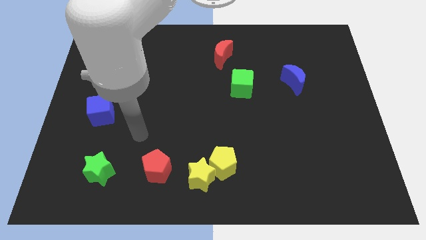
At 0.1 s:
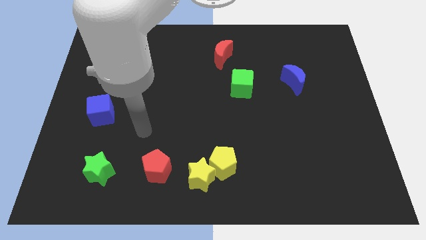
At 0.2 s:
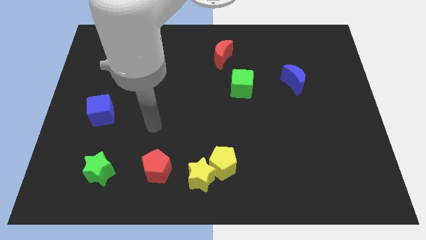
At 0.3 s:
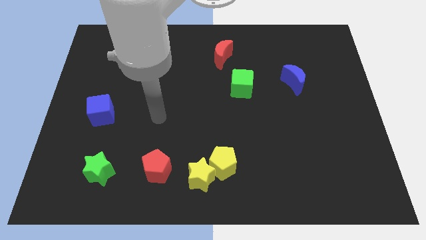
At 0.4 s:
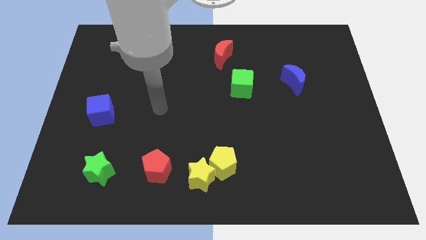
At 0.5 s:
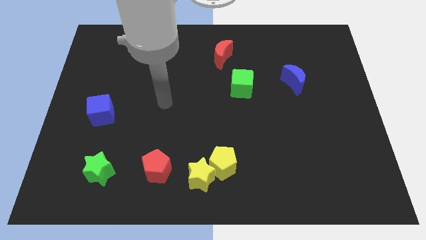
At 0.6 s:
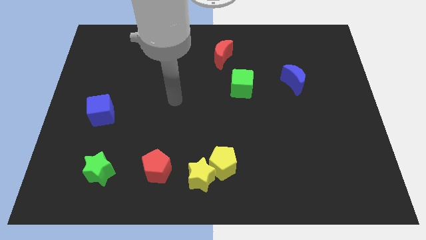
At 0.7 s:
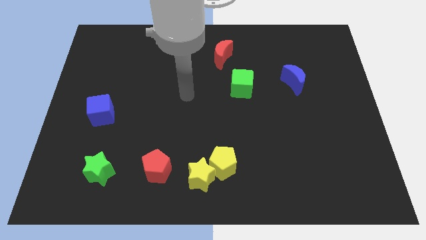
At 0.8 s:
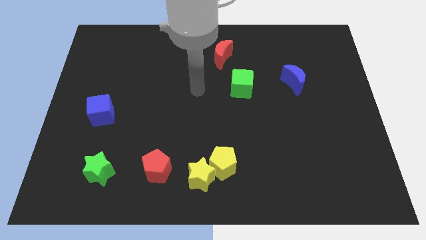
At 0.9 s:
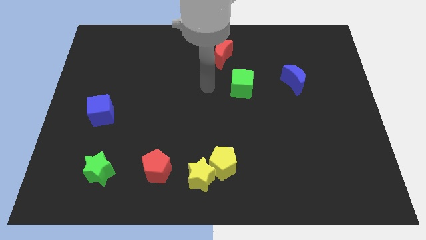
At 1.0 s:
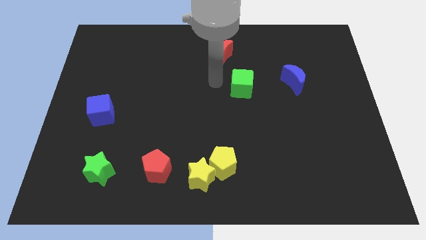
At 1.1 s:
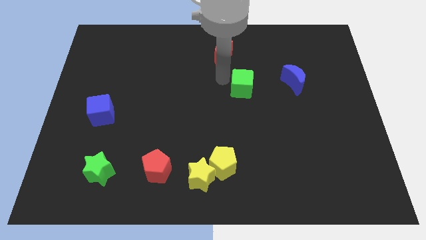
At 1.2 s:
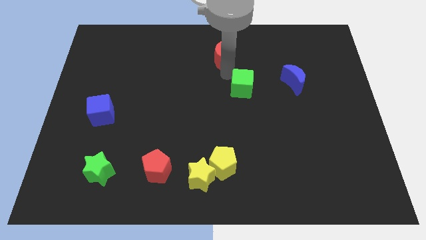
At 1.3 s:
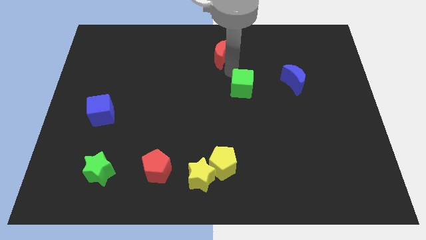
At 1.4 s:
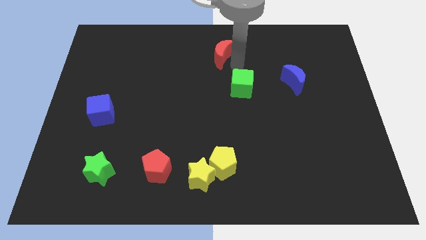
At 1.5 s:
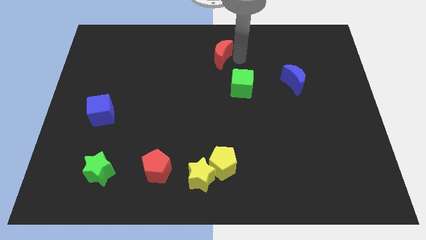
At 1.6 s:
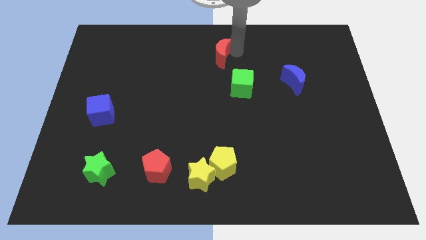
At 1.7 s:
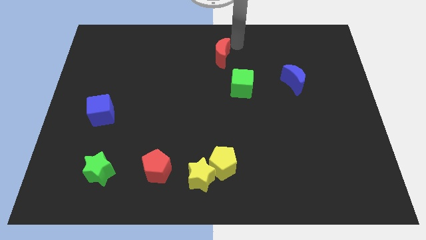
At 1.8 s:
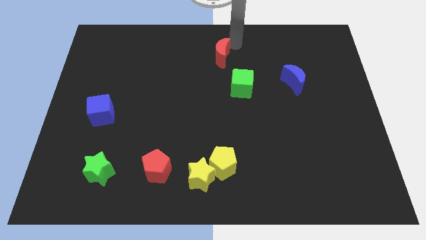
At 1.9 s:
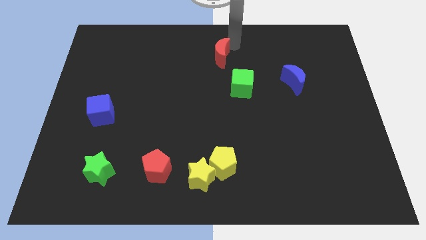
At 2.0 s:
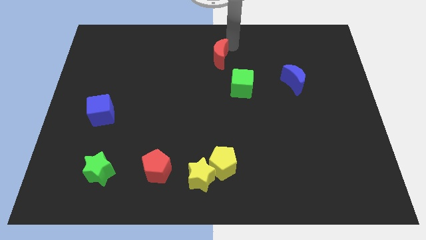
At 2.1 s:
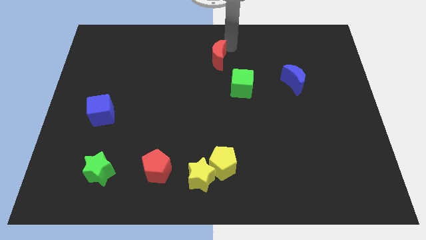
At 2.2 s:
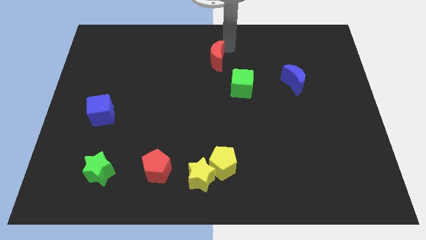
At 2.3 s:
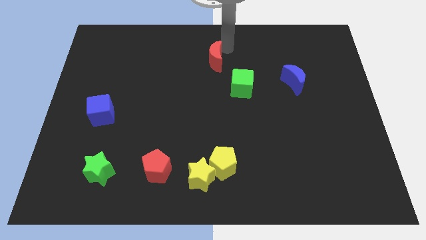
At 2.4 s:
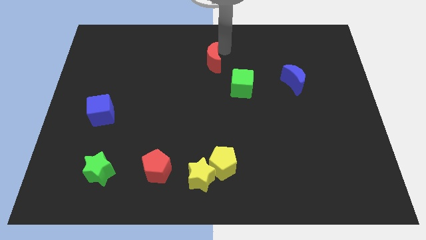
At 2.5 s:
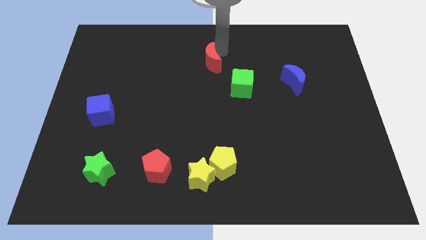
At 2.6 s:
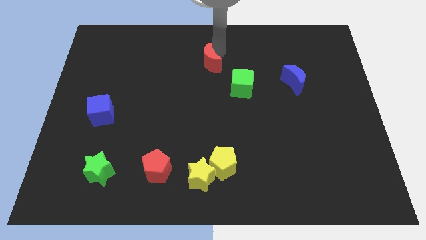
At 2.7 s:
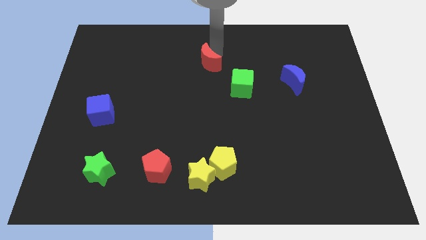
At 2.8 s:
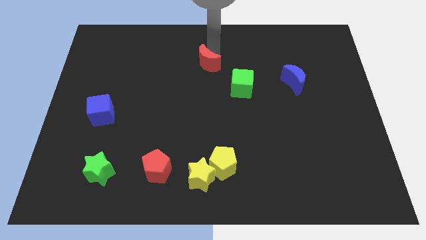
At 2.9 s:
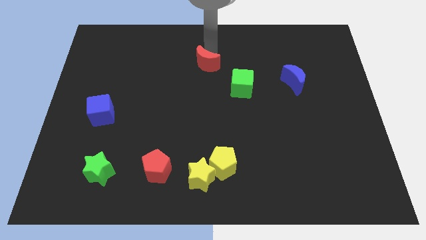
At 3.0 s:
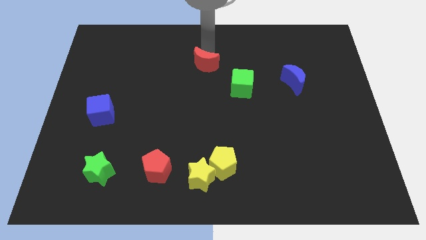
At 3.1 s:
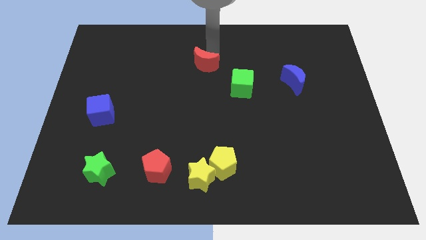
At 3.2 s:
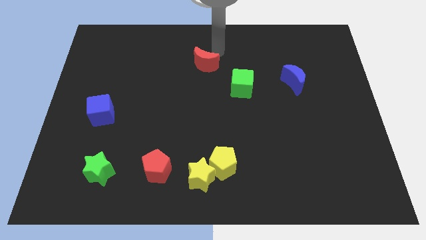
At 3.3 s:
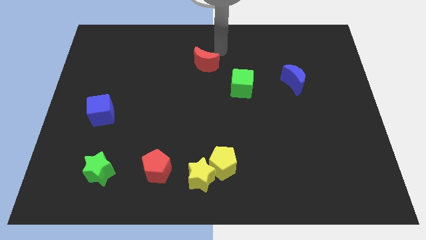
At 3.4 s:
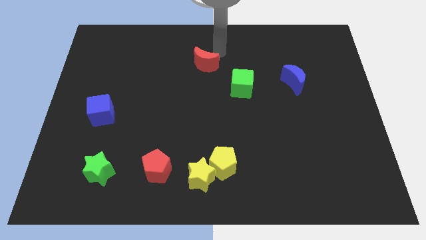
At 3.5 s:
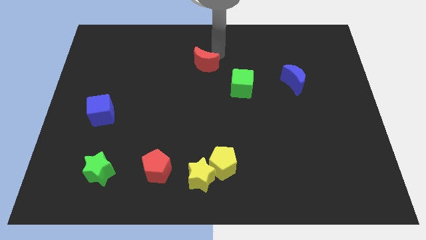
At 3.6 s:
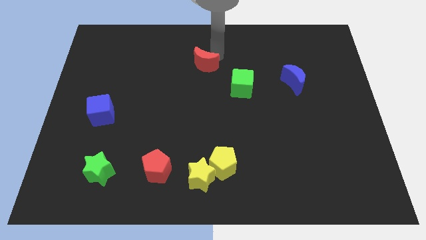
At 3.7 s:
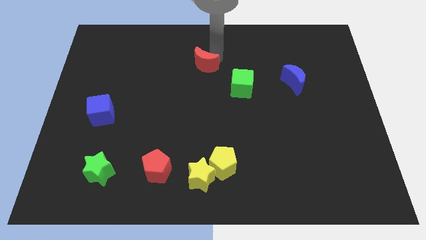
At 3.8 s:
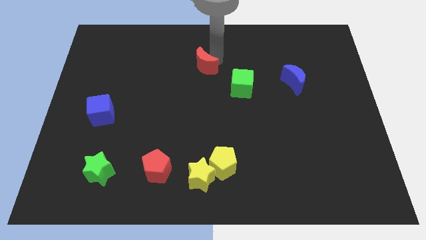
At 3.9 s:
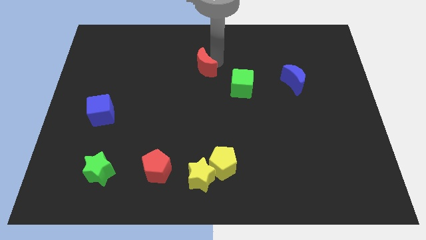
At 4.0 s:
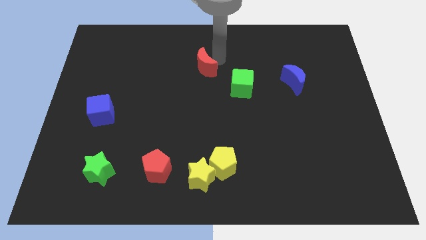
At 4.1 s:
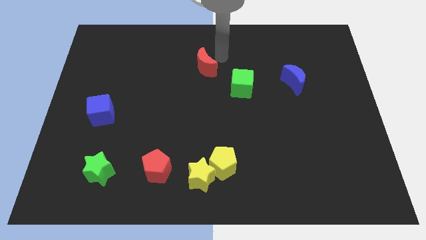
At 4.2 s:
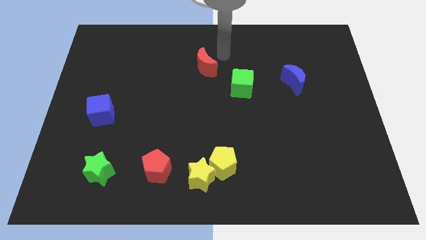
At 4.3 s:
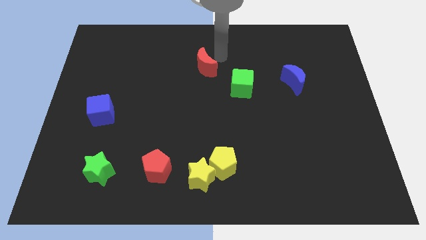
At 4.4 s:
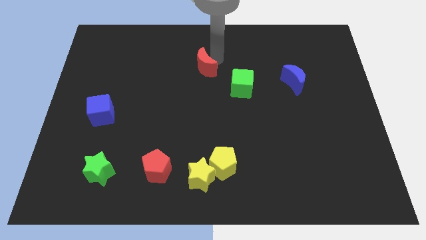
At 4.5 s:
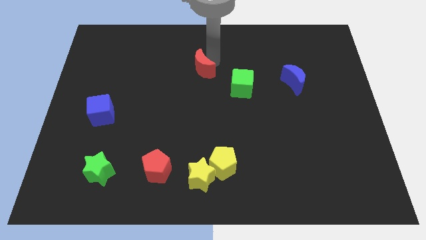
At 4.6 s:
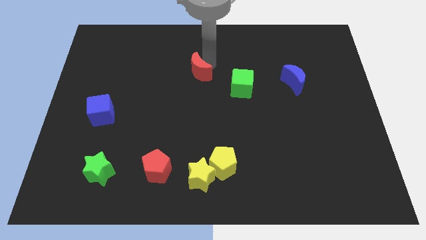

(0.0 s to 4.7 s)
push the red moon diagonally downwards and to the left a bit

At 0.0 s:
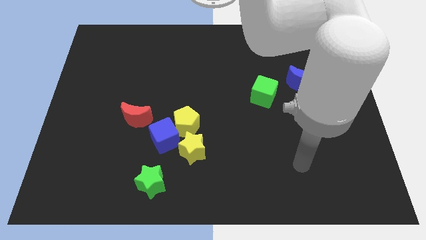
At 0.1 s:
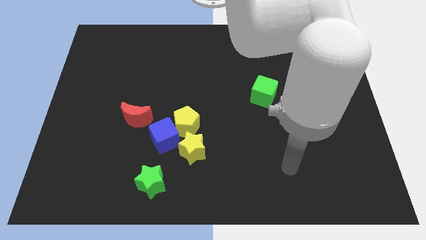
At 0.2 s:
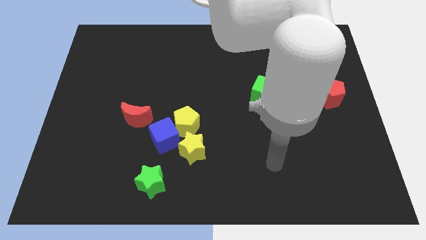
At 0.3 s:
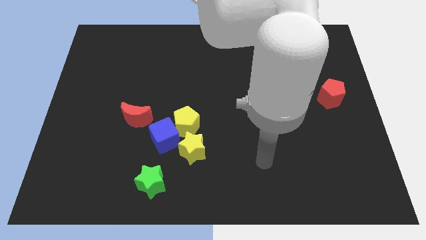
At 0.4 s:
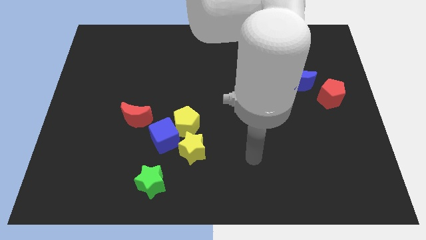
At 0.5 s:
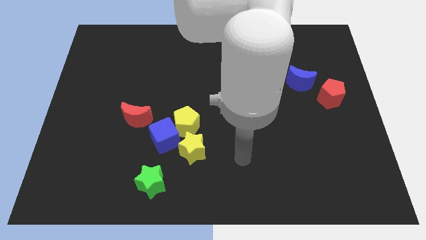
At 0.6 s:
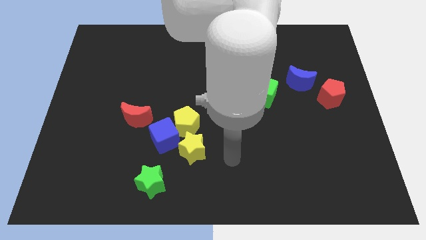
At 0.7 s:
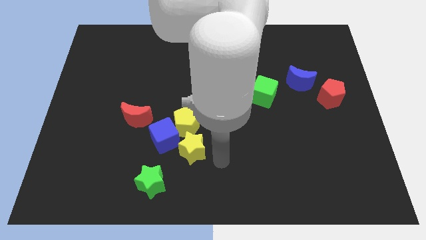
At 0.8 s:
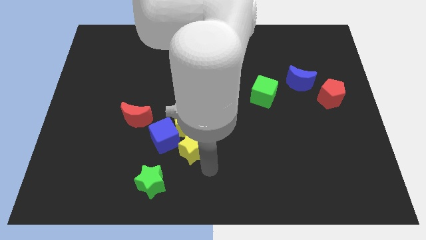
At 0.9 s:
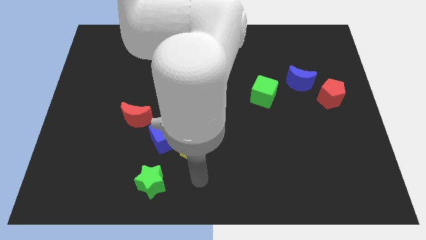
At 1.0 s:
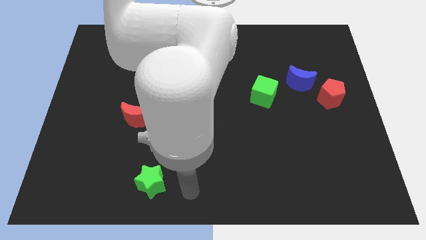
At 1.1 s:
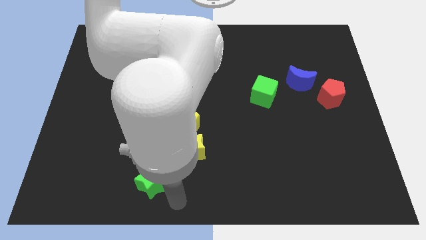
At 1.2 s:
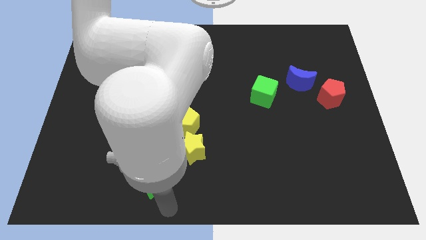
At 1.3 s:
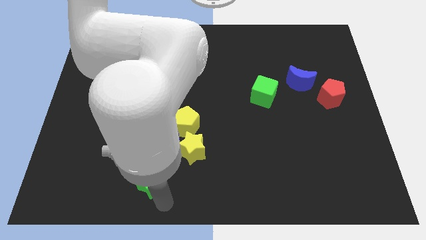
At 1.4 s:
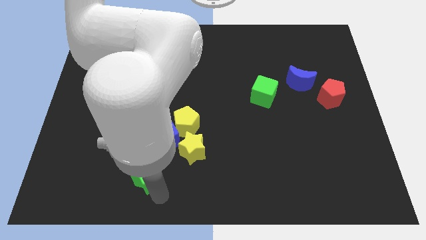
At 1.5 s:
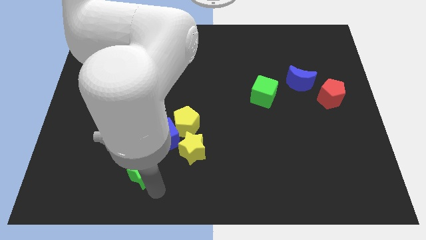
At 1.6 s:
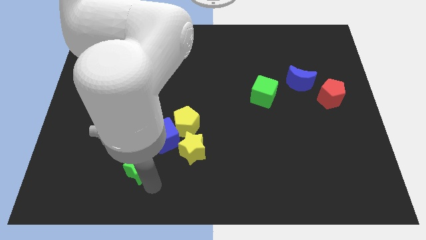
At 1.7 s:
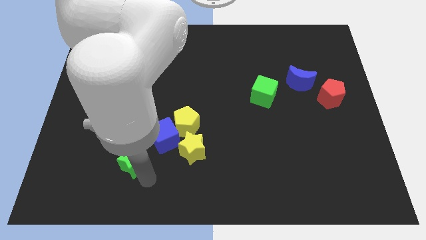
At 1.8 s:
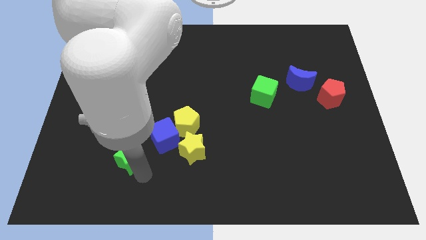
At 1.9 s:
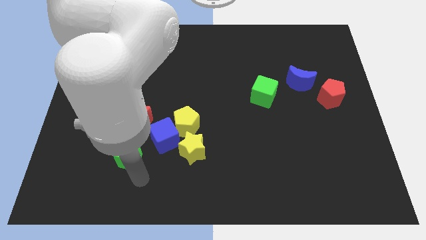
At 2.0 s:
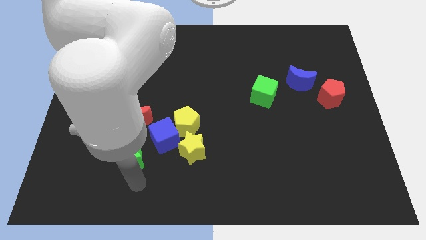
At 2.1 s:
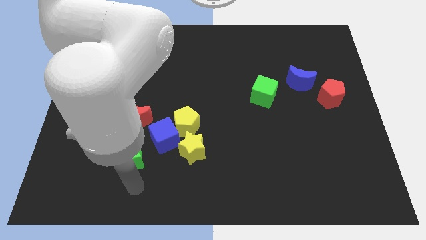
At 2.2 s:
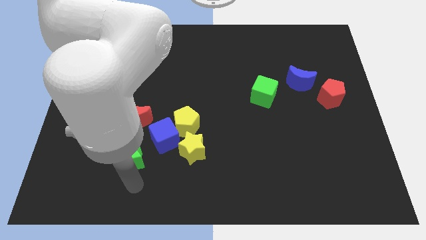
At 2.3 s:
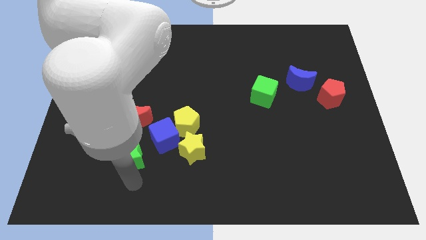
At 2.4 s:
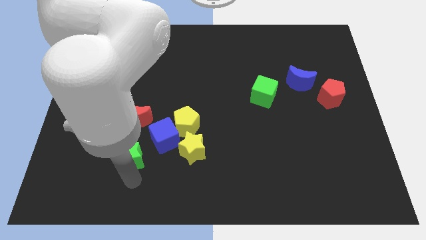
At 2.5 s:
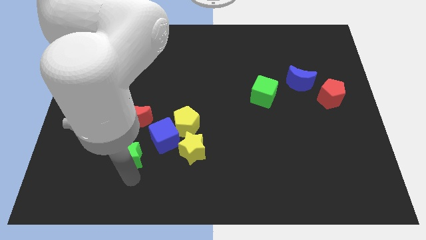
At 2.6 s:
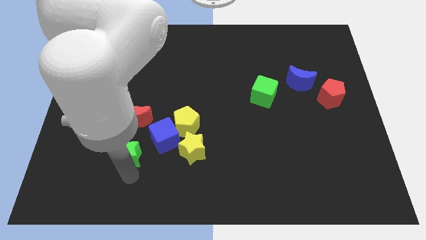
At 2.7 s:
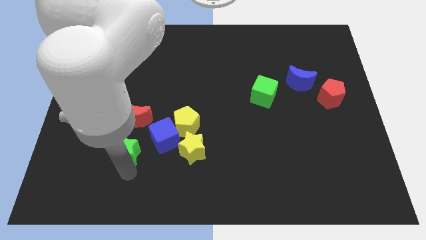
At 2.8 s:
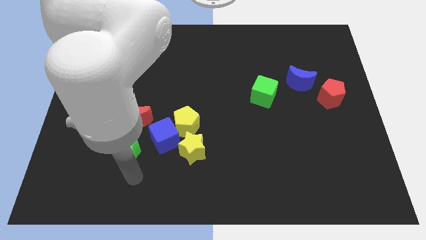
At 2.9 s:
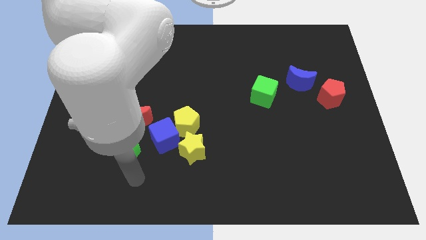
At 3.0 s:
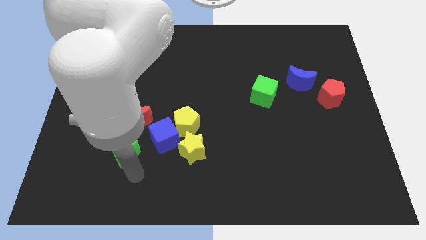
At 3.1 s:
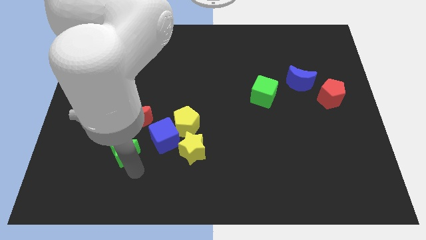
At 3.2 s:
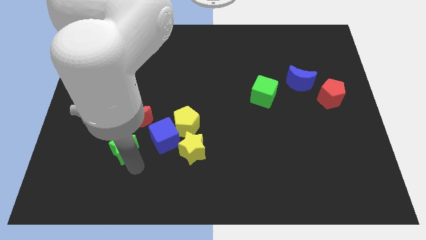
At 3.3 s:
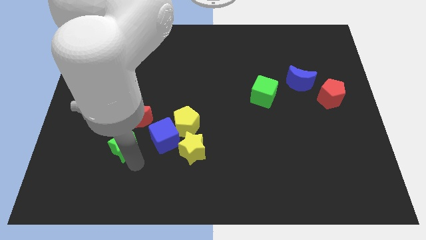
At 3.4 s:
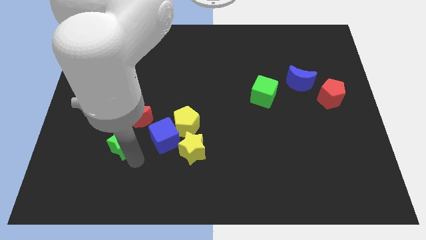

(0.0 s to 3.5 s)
slightly move the green star up

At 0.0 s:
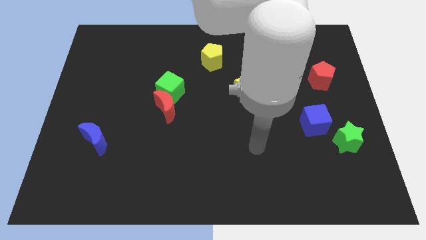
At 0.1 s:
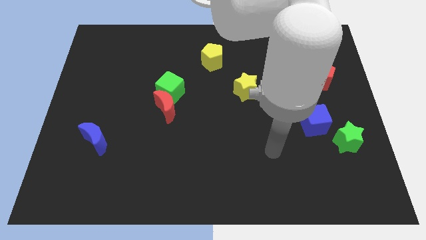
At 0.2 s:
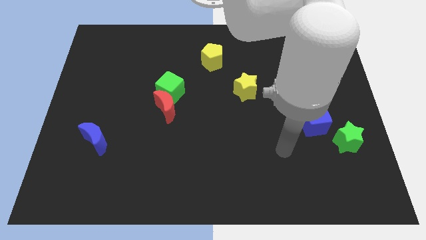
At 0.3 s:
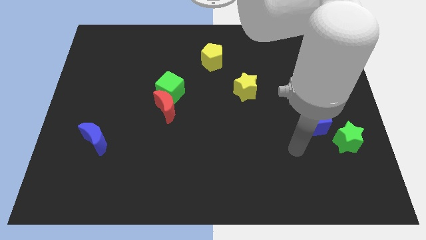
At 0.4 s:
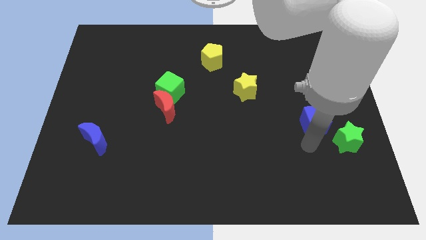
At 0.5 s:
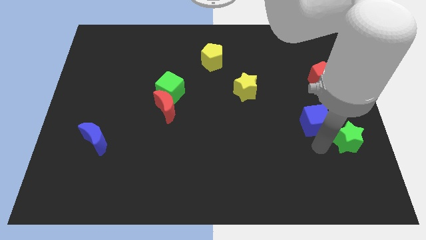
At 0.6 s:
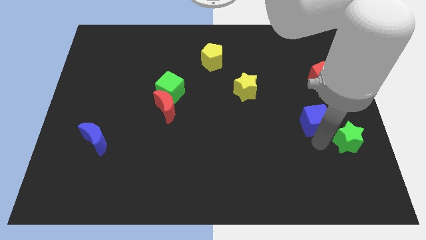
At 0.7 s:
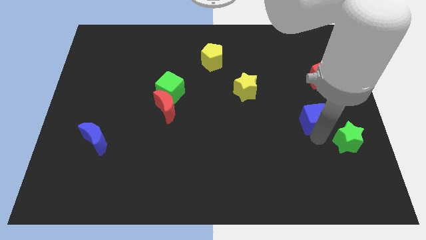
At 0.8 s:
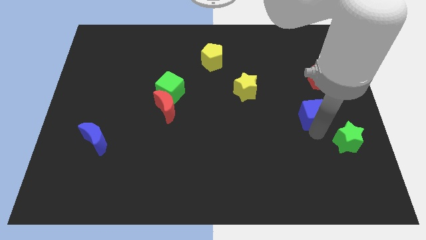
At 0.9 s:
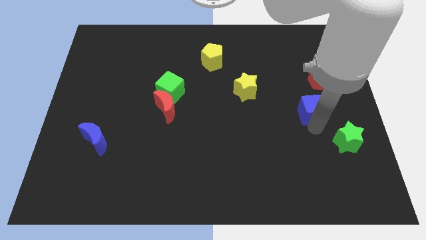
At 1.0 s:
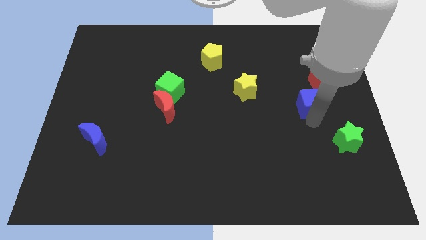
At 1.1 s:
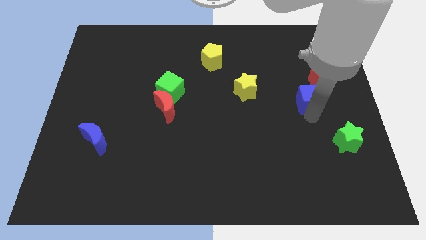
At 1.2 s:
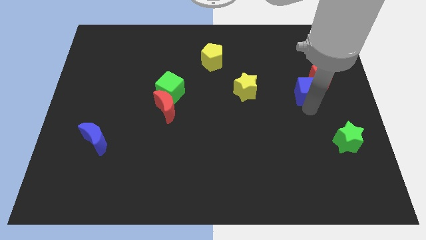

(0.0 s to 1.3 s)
push the blue cube a bit upwards
